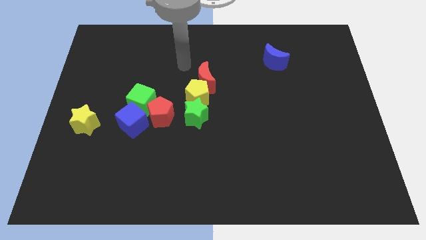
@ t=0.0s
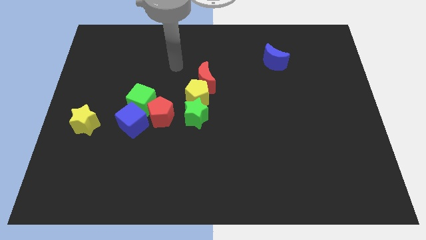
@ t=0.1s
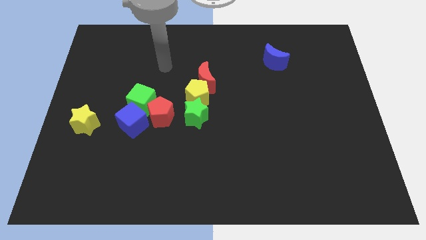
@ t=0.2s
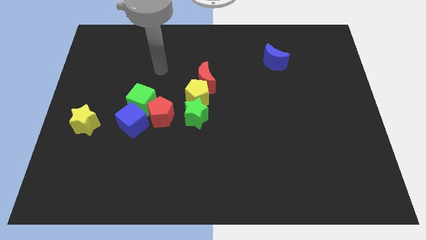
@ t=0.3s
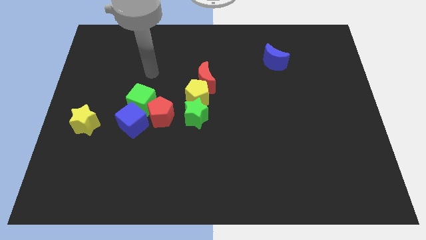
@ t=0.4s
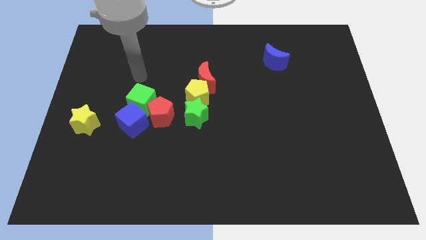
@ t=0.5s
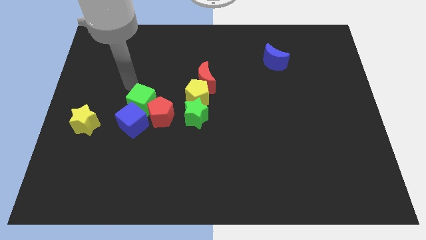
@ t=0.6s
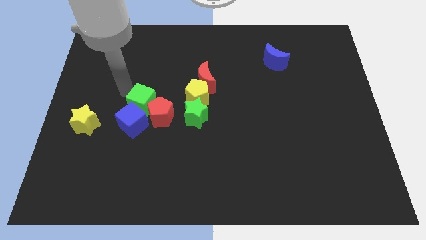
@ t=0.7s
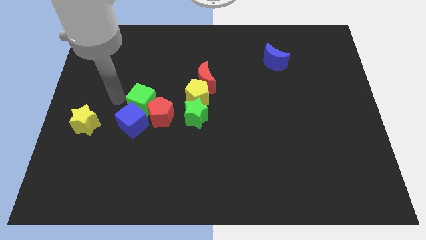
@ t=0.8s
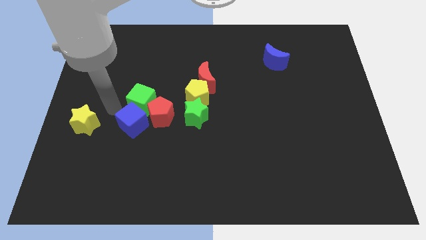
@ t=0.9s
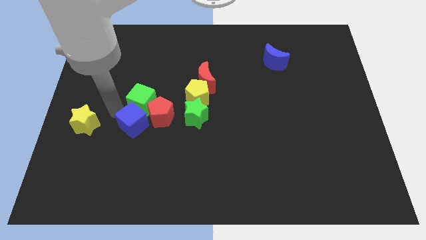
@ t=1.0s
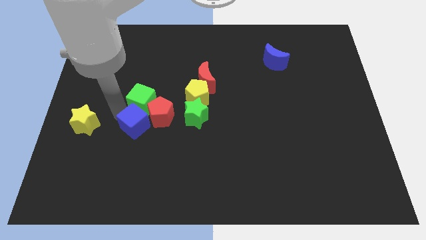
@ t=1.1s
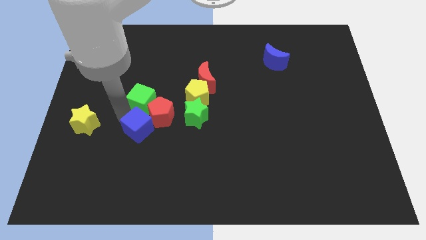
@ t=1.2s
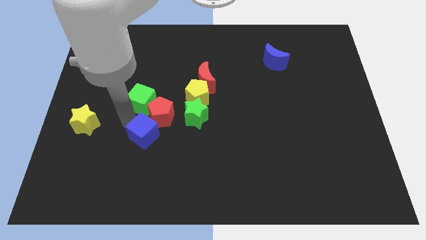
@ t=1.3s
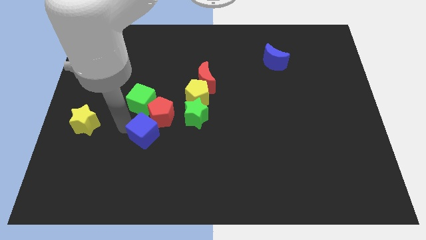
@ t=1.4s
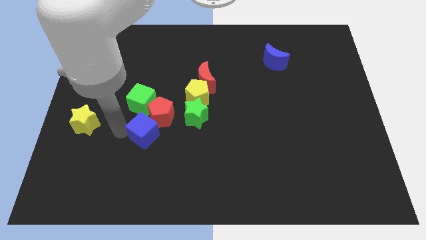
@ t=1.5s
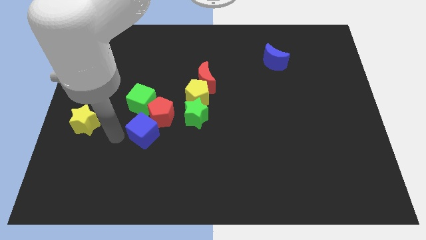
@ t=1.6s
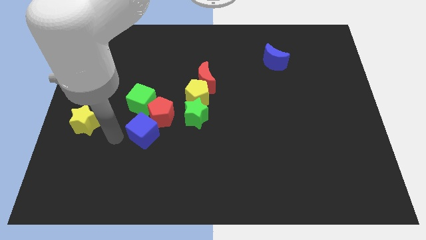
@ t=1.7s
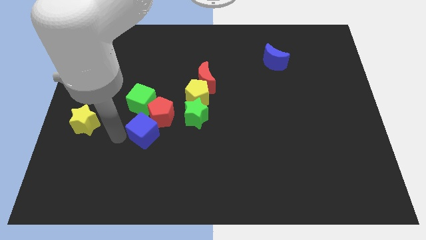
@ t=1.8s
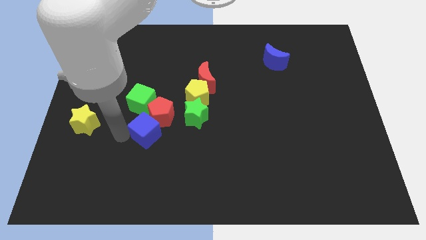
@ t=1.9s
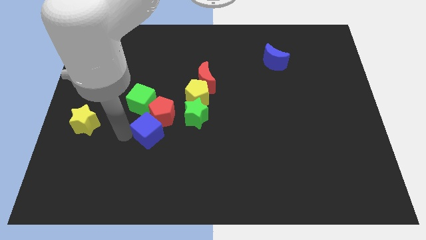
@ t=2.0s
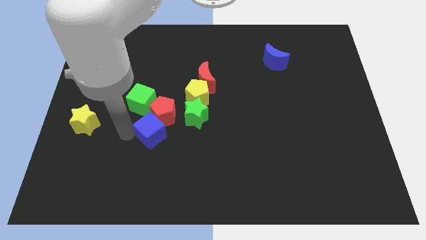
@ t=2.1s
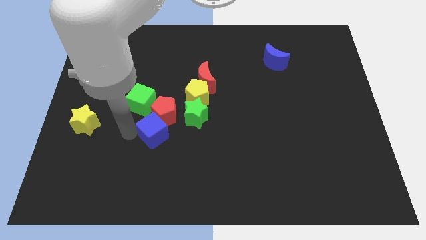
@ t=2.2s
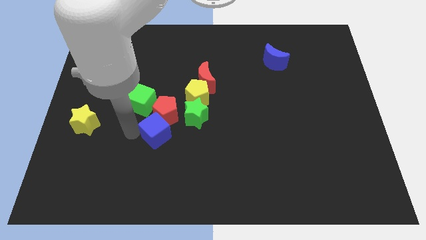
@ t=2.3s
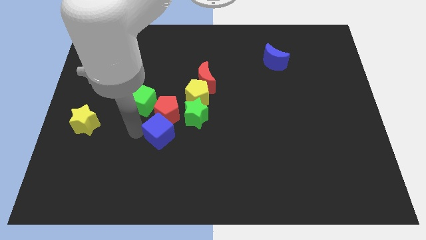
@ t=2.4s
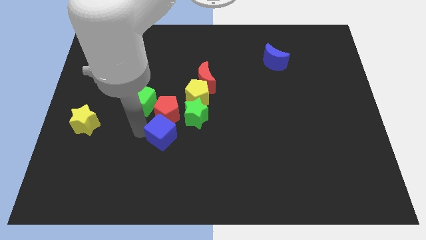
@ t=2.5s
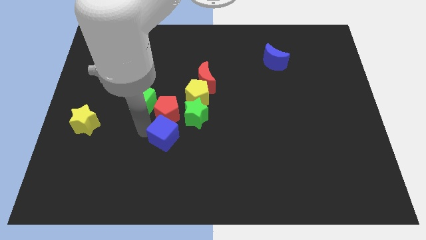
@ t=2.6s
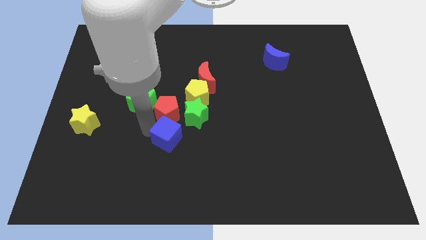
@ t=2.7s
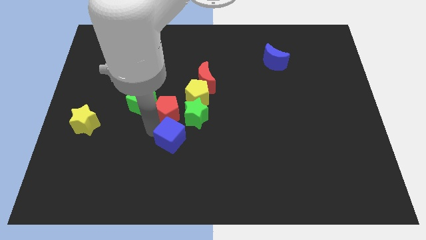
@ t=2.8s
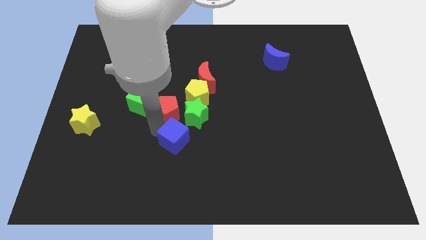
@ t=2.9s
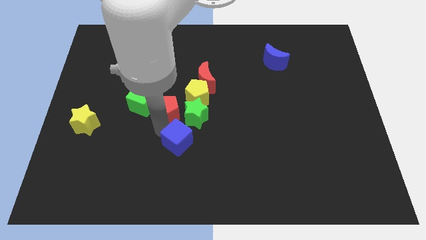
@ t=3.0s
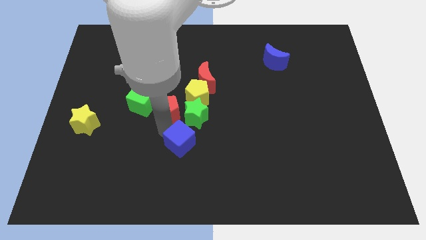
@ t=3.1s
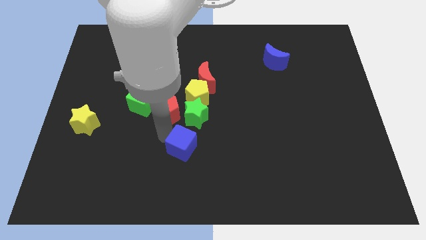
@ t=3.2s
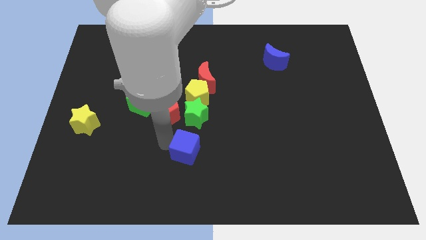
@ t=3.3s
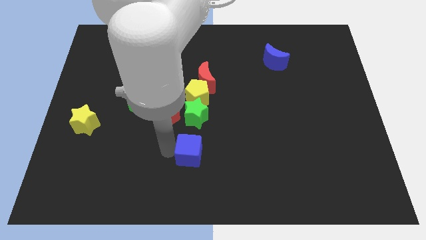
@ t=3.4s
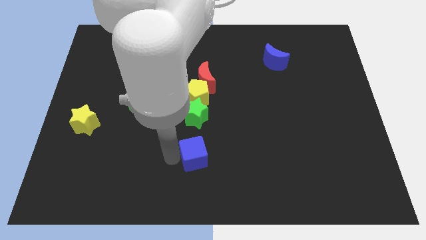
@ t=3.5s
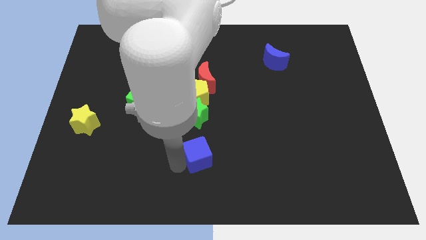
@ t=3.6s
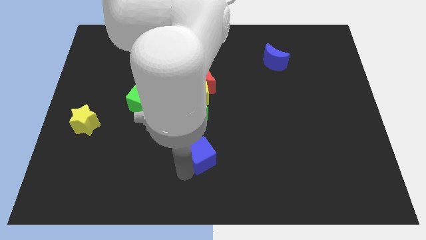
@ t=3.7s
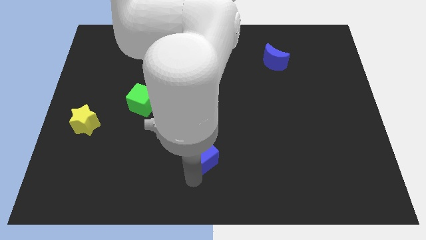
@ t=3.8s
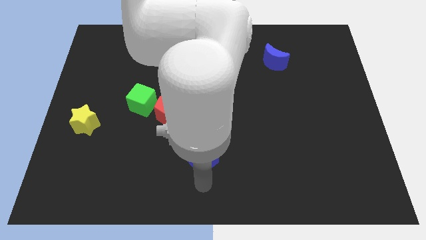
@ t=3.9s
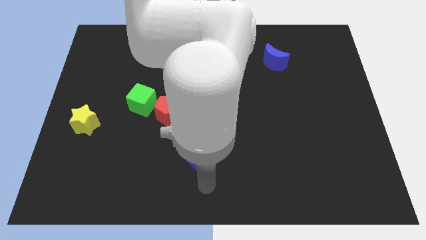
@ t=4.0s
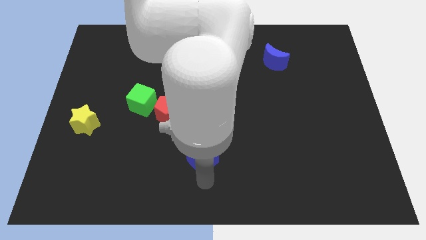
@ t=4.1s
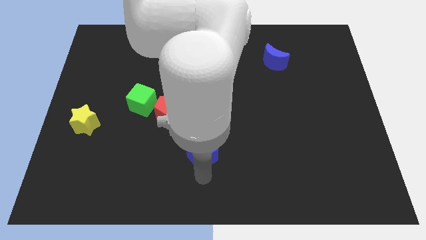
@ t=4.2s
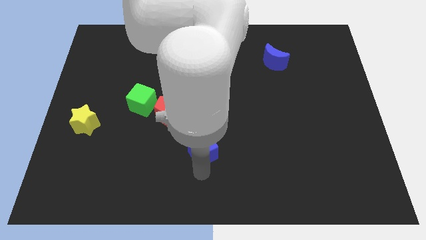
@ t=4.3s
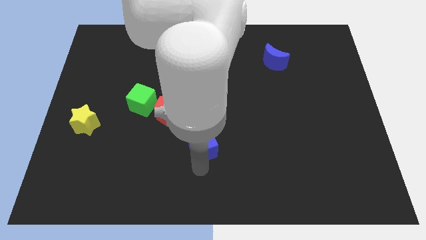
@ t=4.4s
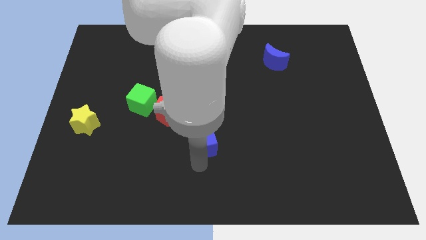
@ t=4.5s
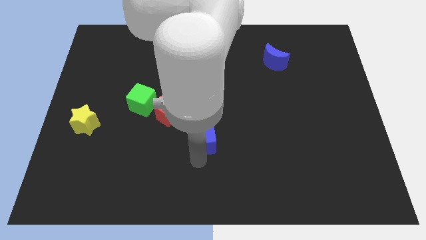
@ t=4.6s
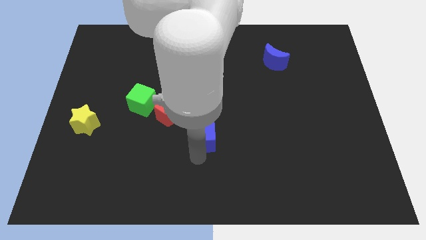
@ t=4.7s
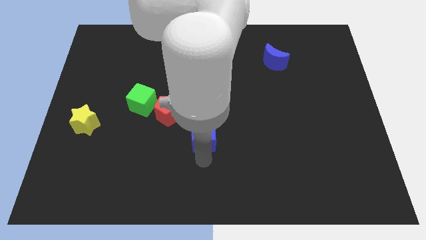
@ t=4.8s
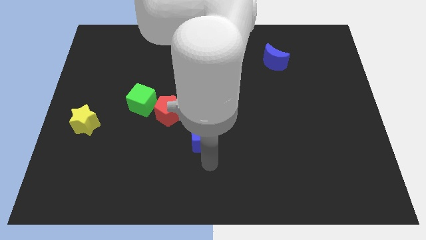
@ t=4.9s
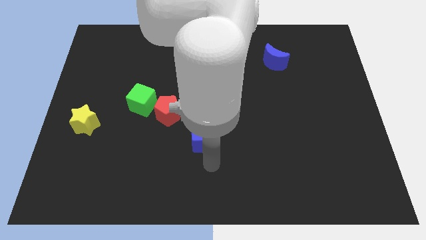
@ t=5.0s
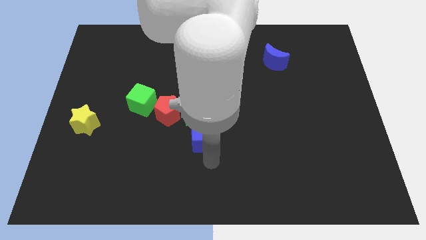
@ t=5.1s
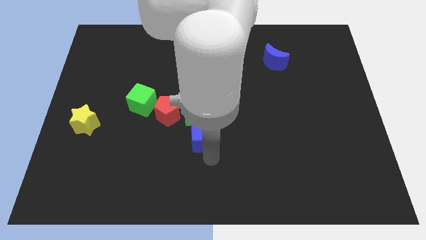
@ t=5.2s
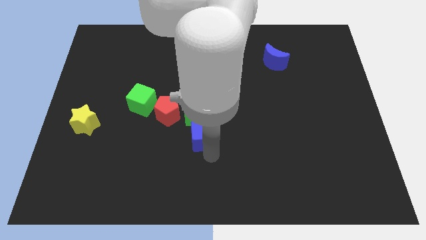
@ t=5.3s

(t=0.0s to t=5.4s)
move the blue cube towards the green star

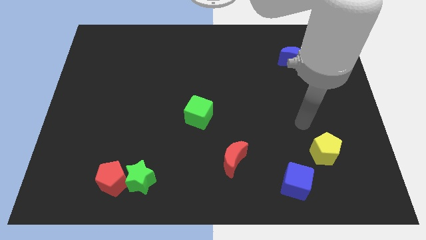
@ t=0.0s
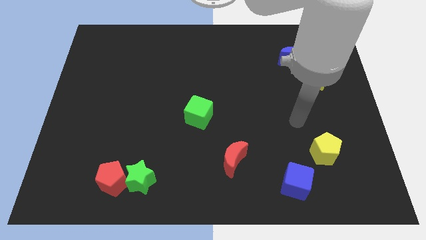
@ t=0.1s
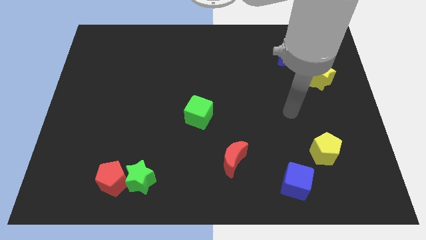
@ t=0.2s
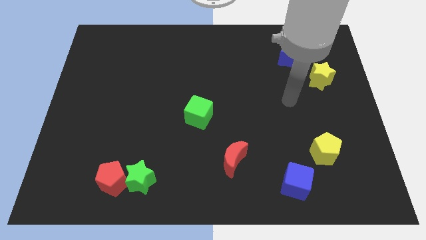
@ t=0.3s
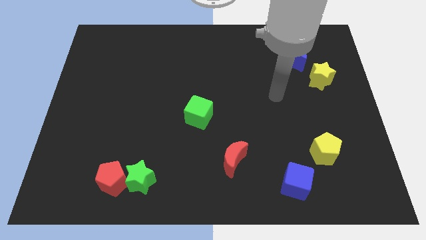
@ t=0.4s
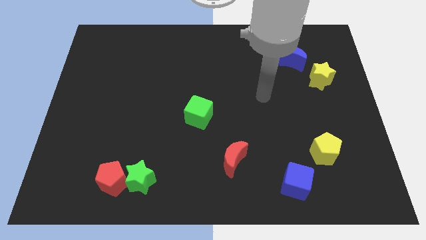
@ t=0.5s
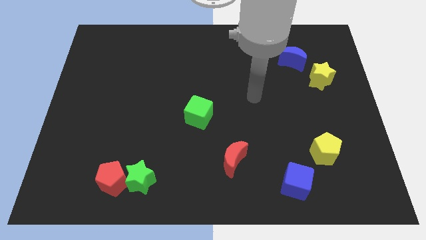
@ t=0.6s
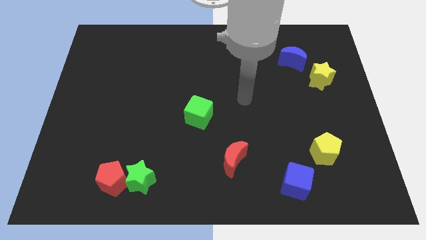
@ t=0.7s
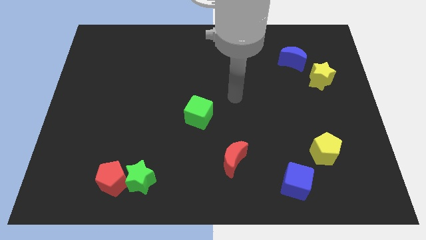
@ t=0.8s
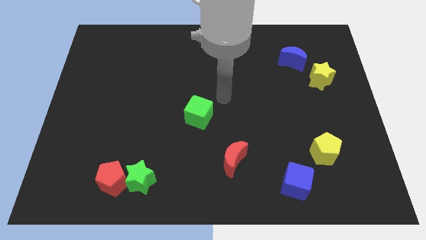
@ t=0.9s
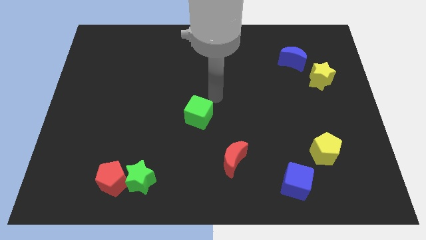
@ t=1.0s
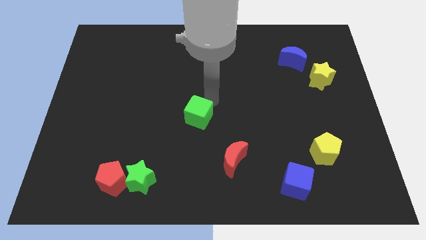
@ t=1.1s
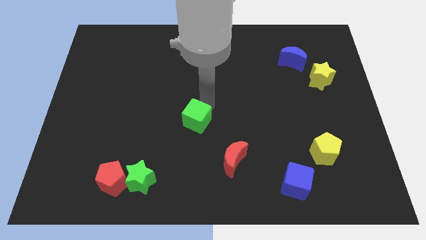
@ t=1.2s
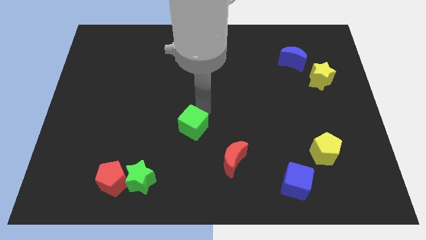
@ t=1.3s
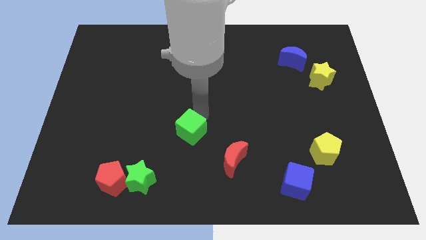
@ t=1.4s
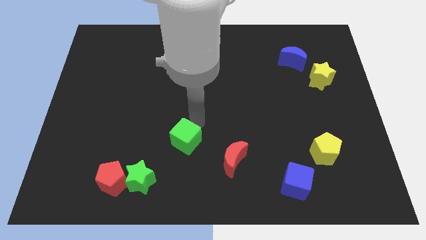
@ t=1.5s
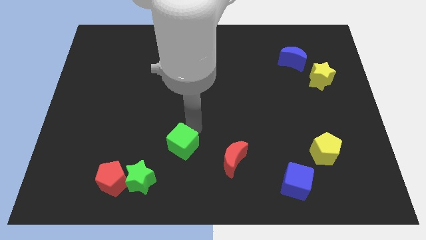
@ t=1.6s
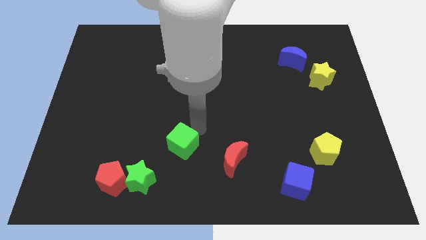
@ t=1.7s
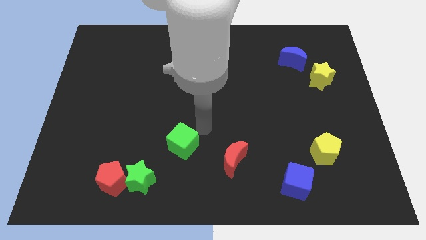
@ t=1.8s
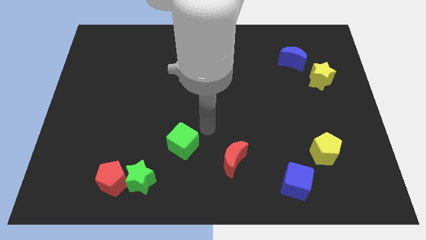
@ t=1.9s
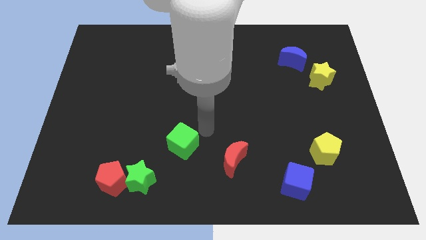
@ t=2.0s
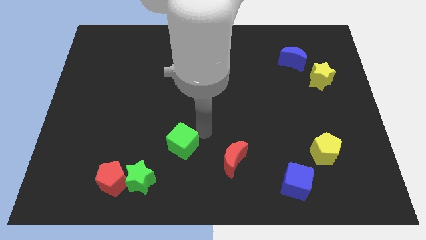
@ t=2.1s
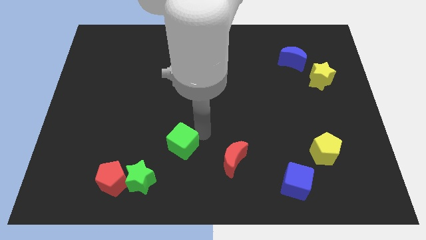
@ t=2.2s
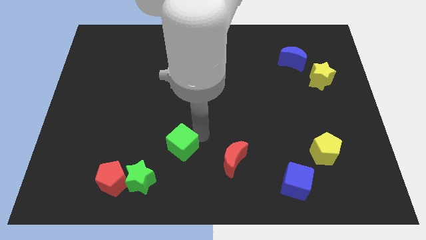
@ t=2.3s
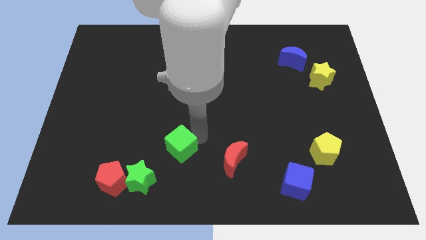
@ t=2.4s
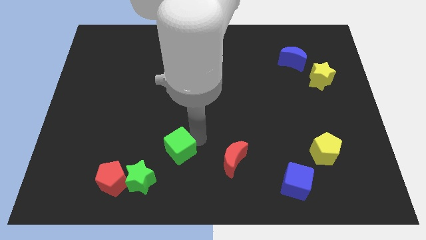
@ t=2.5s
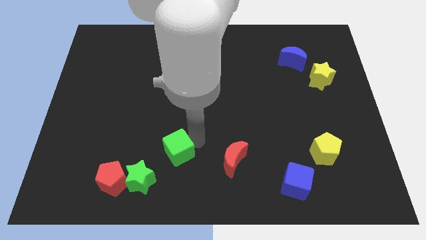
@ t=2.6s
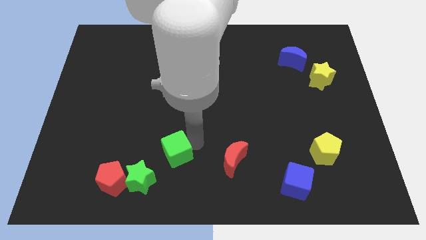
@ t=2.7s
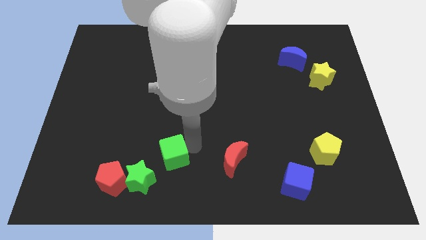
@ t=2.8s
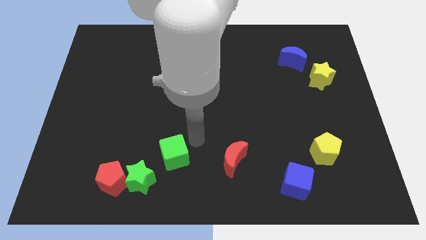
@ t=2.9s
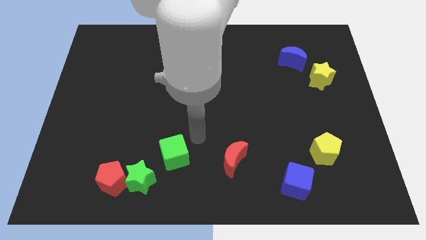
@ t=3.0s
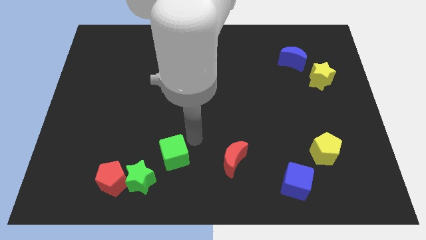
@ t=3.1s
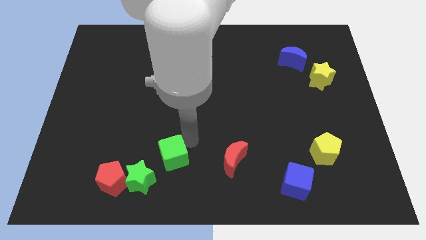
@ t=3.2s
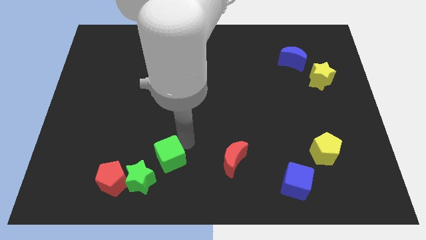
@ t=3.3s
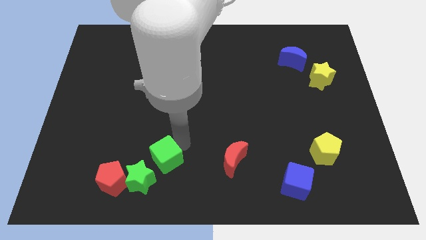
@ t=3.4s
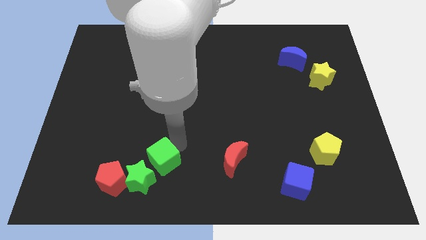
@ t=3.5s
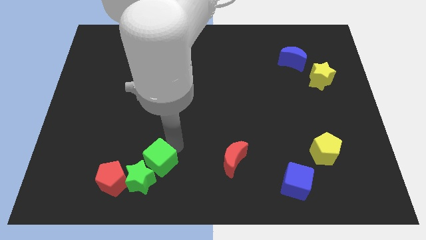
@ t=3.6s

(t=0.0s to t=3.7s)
slide the green cube towards the green star
